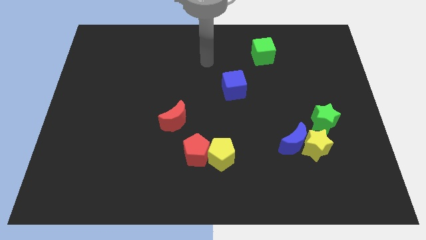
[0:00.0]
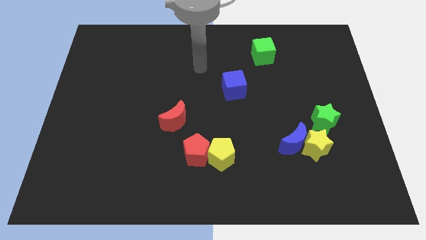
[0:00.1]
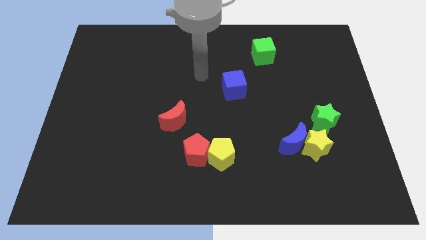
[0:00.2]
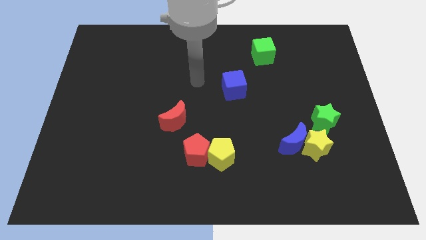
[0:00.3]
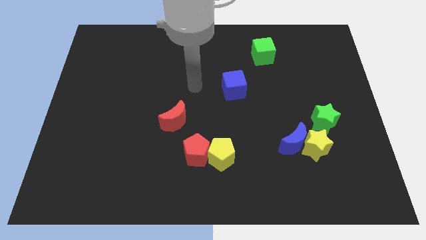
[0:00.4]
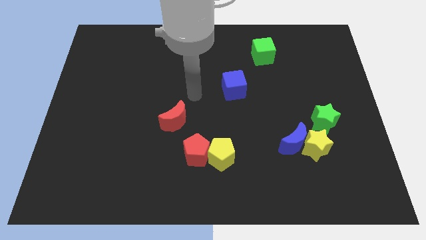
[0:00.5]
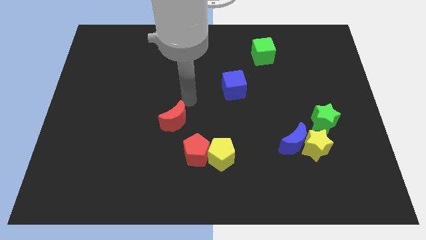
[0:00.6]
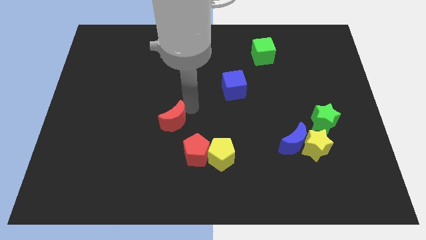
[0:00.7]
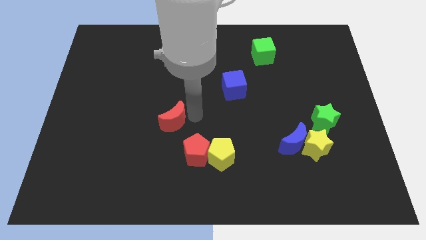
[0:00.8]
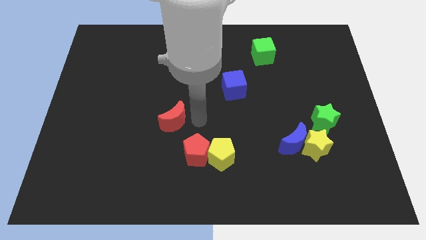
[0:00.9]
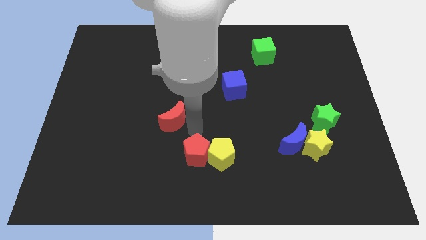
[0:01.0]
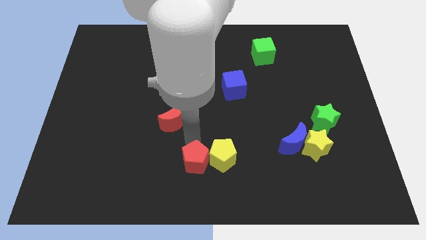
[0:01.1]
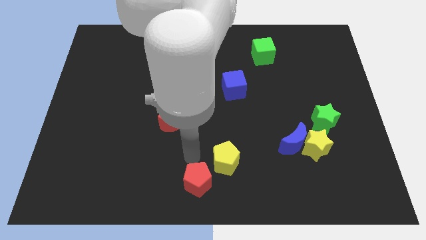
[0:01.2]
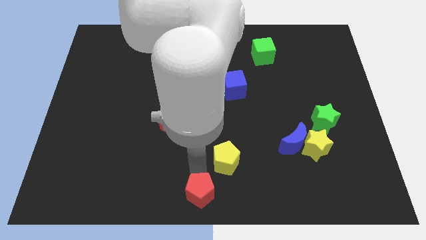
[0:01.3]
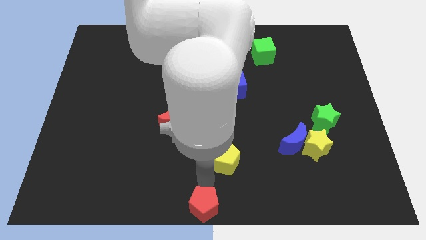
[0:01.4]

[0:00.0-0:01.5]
move the yellow pentagon away from the red pentagon

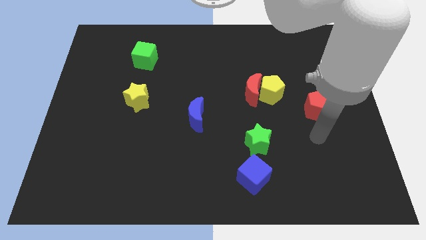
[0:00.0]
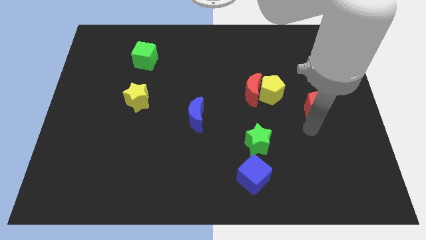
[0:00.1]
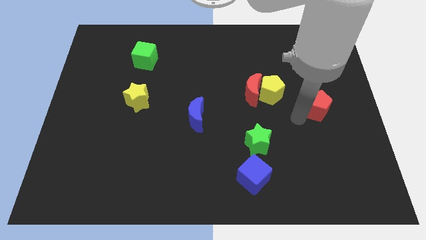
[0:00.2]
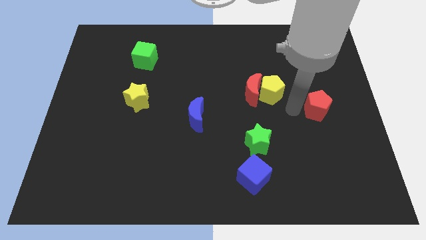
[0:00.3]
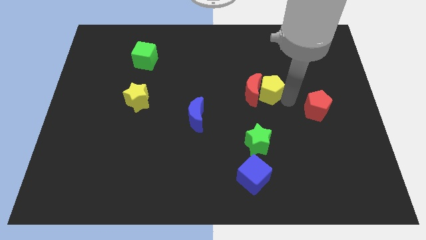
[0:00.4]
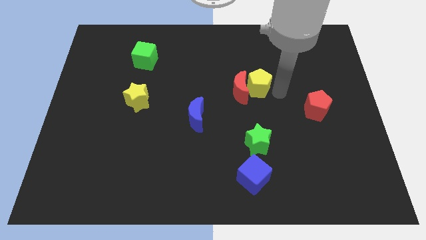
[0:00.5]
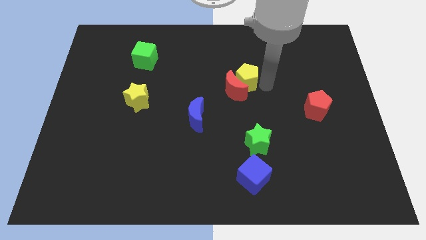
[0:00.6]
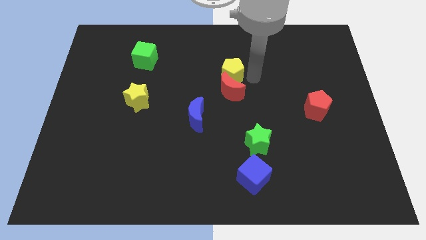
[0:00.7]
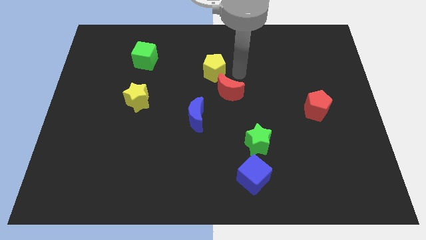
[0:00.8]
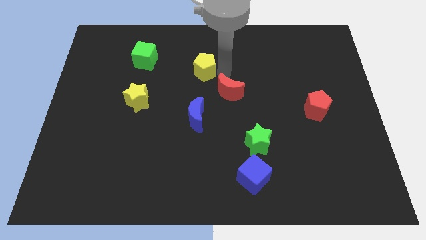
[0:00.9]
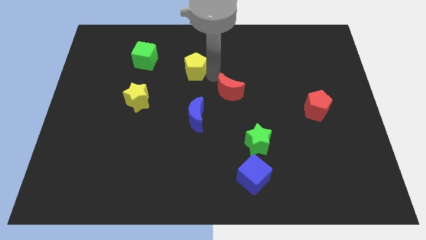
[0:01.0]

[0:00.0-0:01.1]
pull the red moon apart from the yellow pentagon

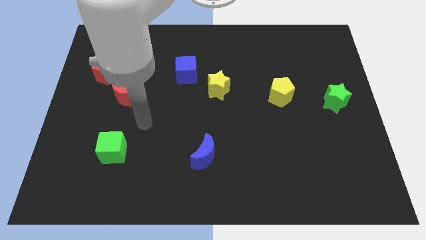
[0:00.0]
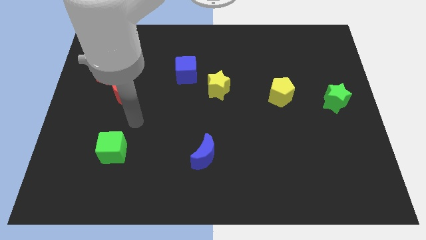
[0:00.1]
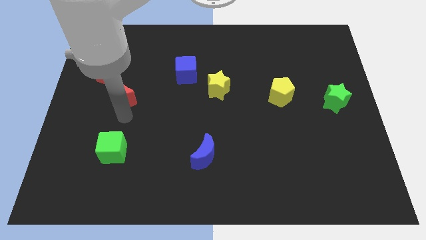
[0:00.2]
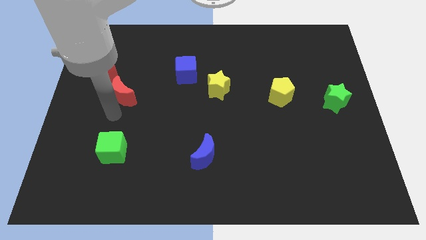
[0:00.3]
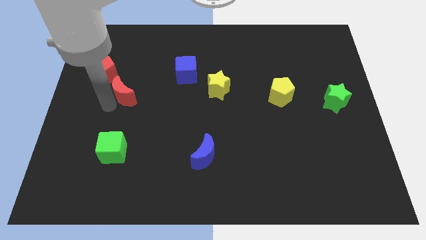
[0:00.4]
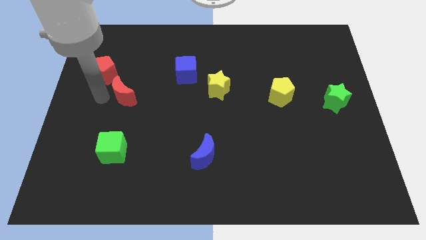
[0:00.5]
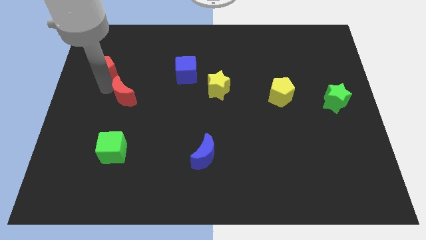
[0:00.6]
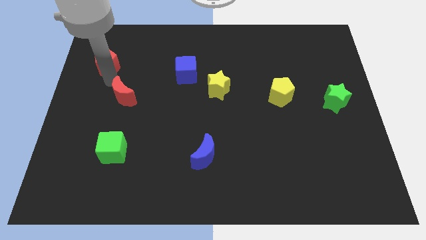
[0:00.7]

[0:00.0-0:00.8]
pull the red moon apart from the red pentagon

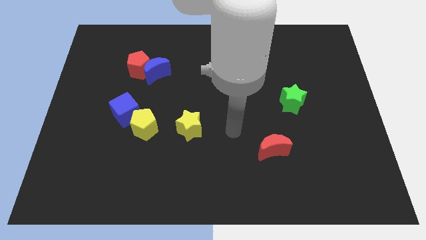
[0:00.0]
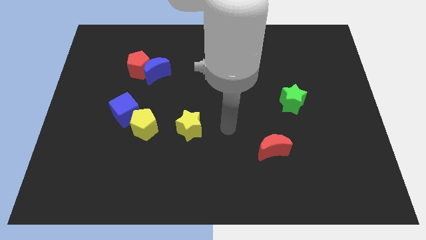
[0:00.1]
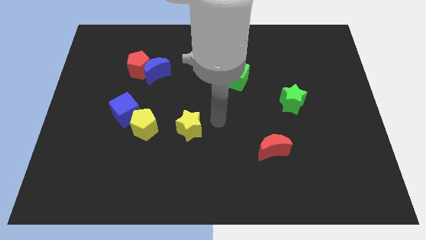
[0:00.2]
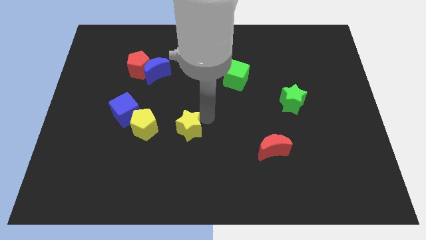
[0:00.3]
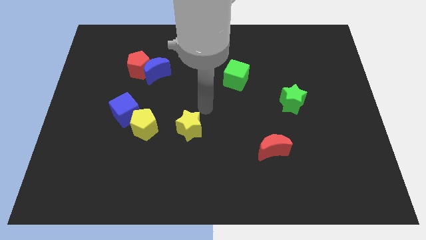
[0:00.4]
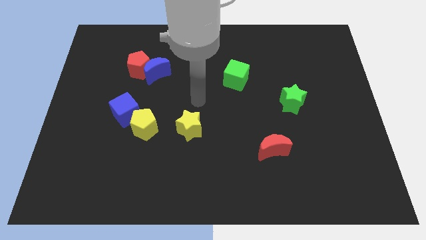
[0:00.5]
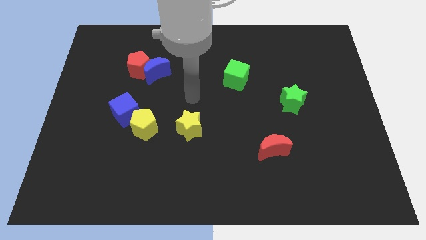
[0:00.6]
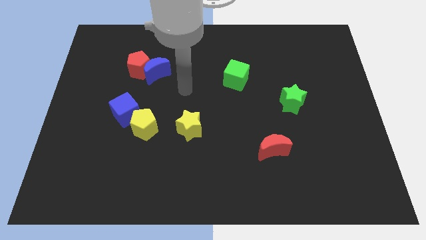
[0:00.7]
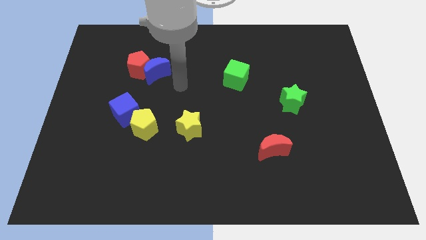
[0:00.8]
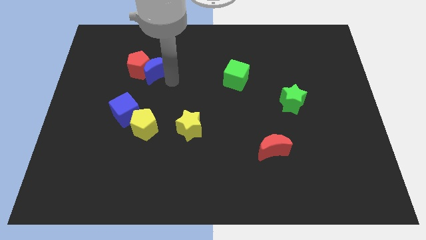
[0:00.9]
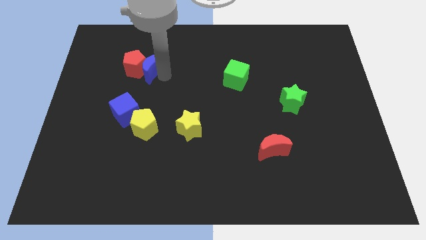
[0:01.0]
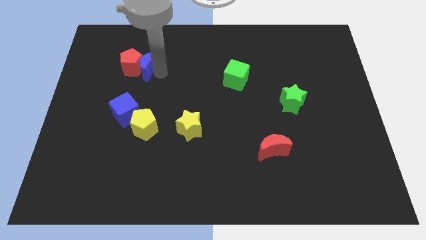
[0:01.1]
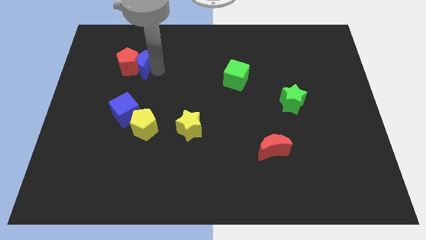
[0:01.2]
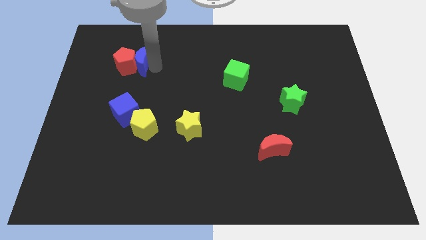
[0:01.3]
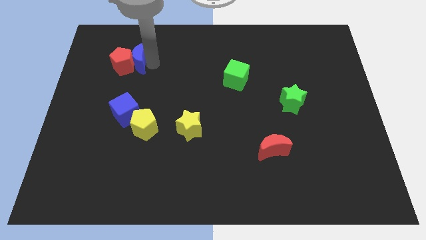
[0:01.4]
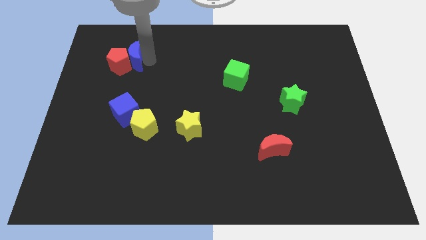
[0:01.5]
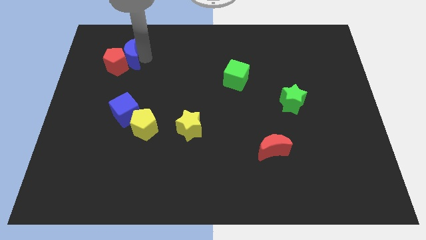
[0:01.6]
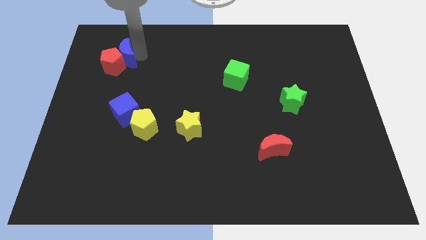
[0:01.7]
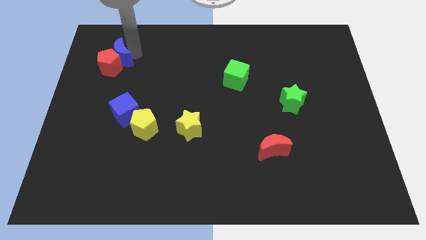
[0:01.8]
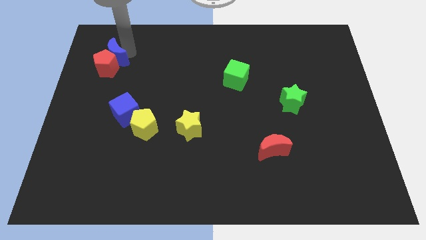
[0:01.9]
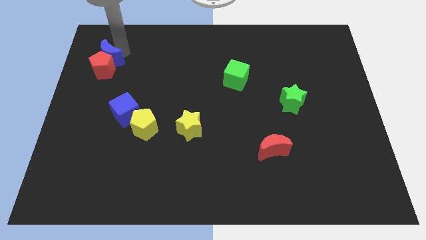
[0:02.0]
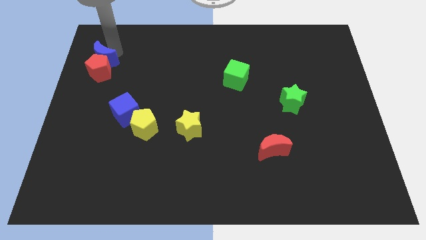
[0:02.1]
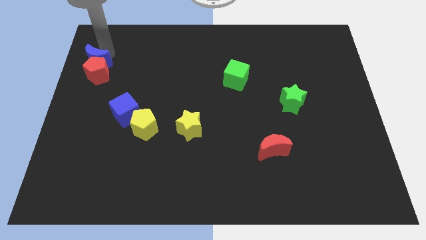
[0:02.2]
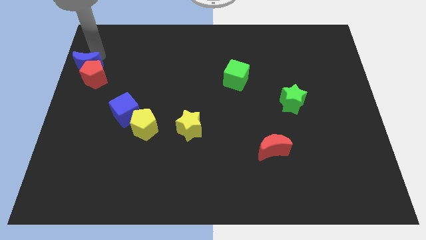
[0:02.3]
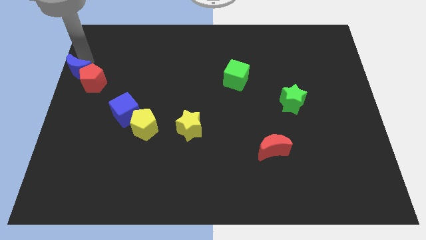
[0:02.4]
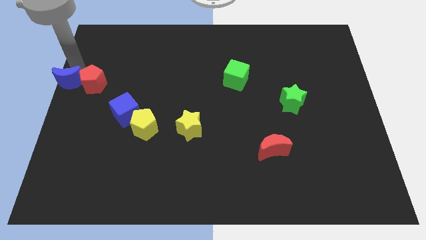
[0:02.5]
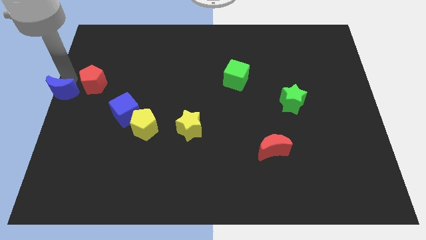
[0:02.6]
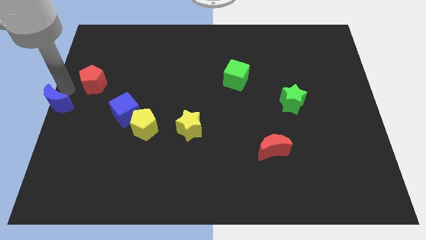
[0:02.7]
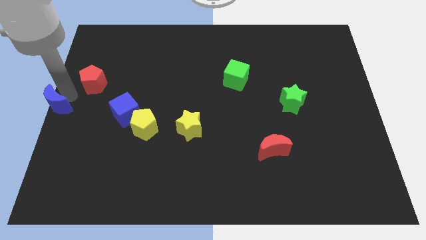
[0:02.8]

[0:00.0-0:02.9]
move the red pentagon away from the blue moon

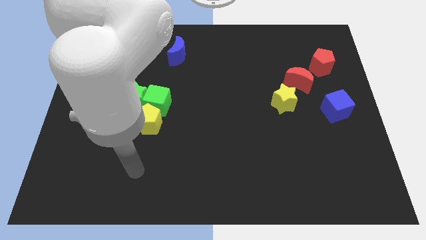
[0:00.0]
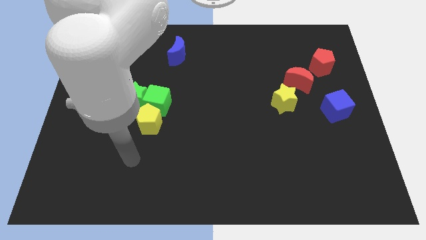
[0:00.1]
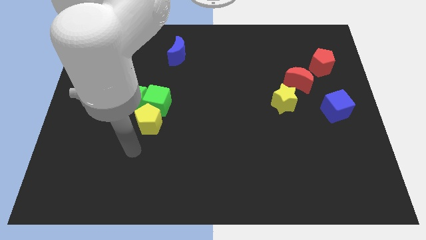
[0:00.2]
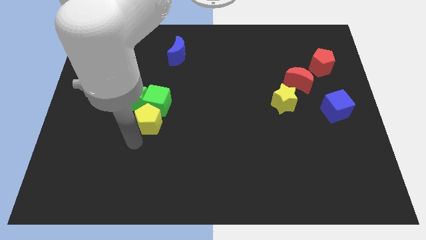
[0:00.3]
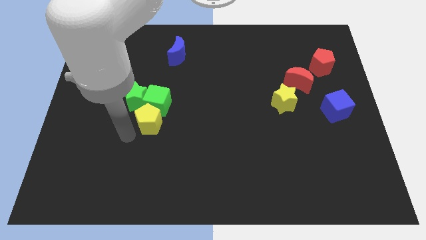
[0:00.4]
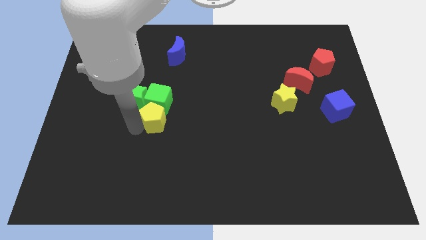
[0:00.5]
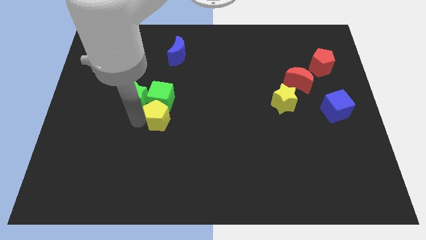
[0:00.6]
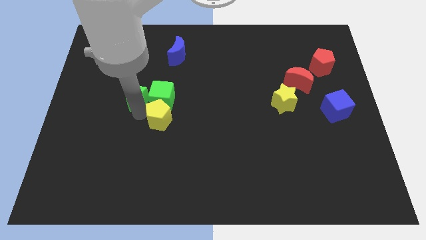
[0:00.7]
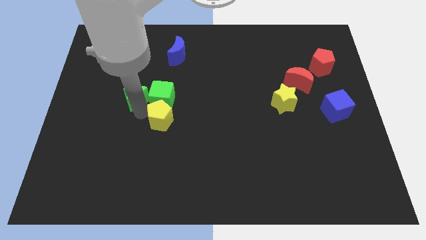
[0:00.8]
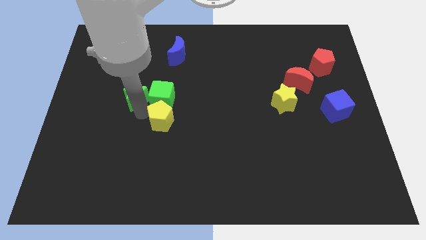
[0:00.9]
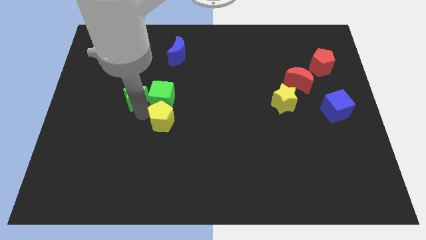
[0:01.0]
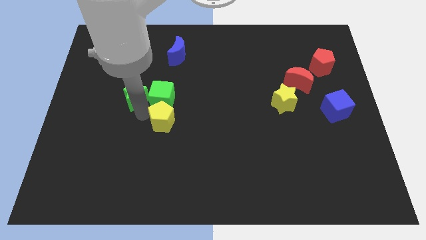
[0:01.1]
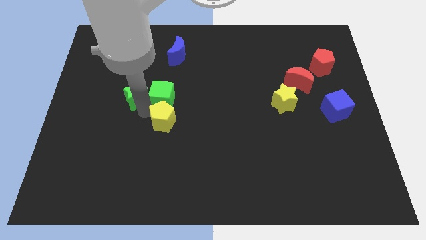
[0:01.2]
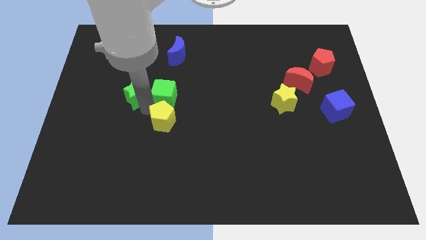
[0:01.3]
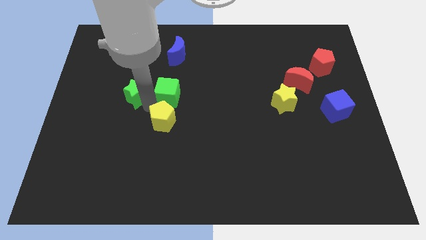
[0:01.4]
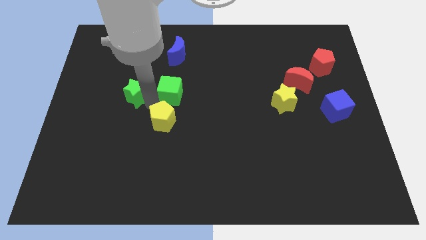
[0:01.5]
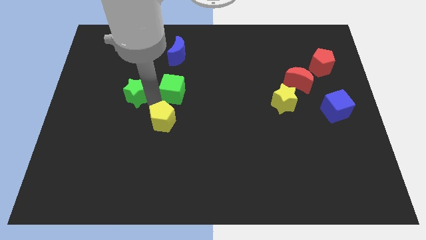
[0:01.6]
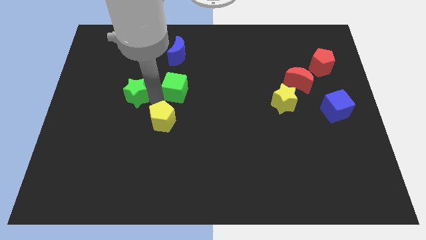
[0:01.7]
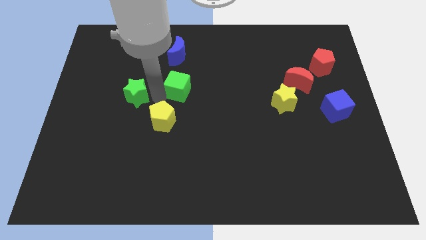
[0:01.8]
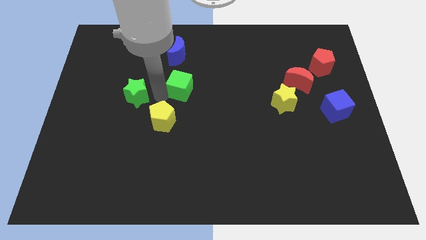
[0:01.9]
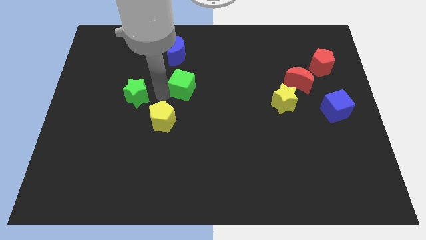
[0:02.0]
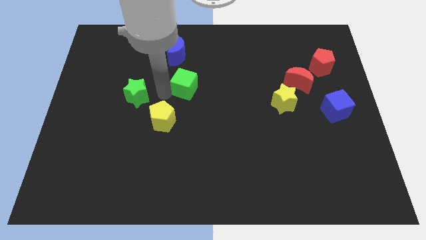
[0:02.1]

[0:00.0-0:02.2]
move the green cube away from the green star and yellow pentagon

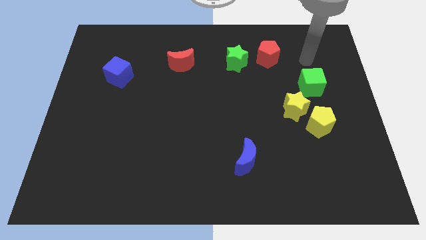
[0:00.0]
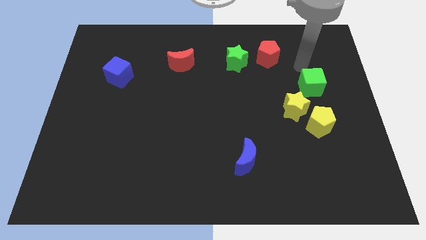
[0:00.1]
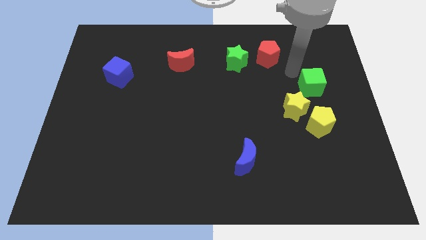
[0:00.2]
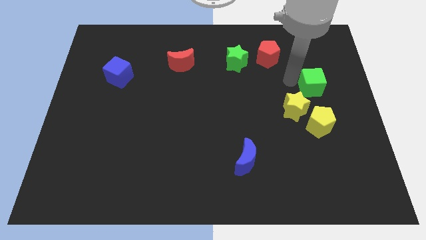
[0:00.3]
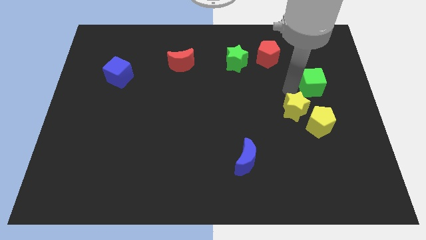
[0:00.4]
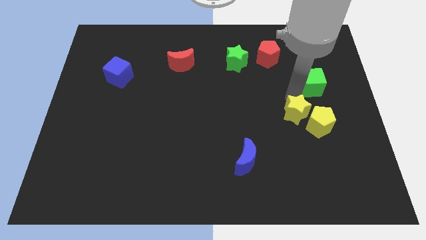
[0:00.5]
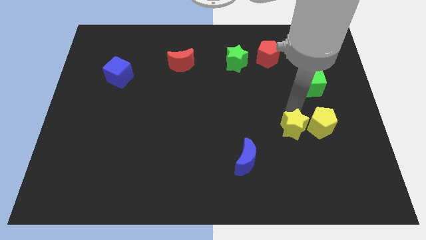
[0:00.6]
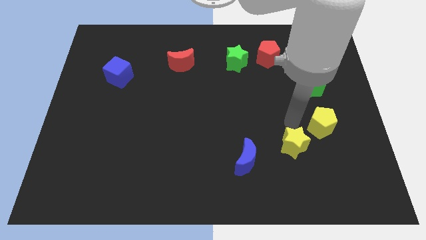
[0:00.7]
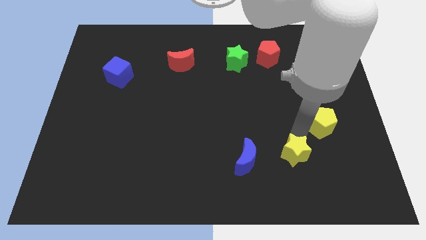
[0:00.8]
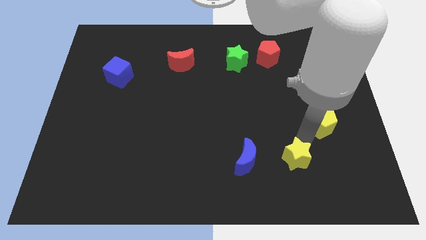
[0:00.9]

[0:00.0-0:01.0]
pull the yellow pentagon apart from the yellow star
